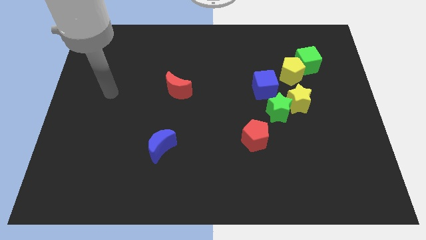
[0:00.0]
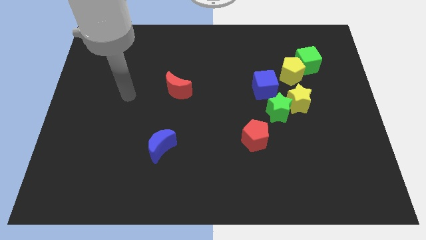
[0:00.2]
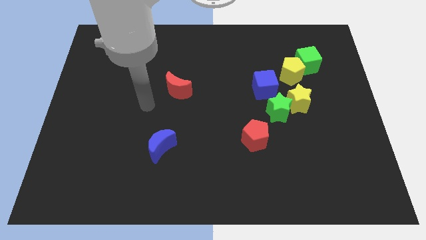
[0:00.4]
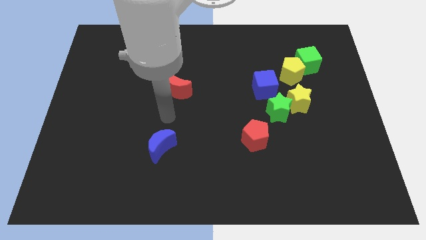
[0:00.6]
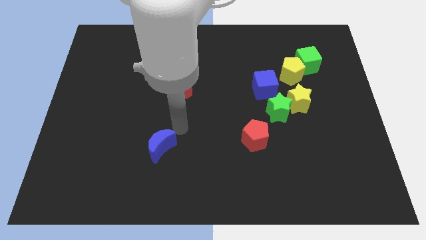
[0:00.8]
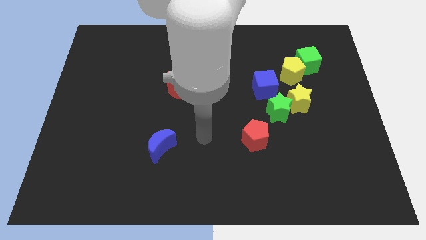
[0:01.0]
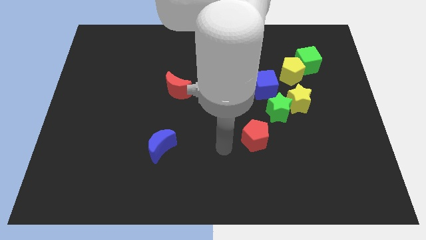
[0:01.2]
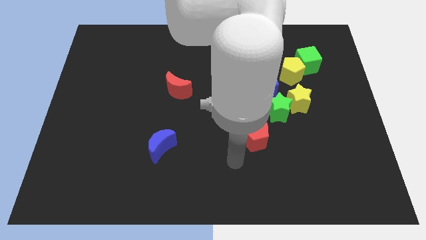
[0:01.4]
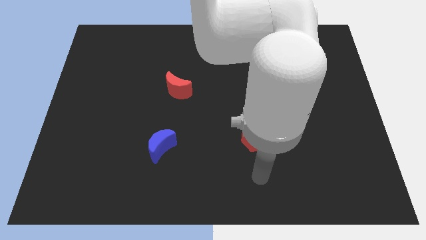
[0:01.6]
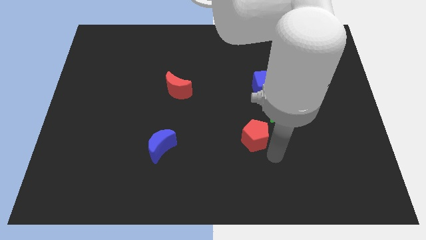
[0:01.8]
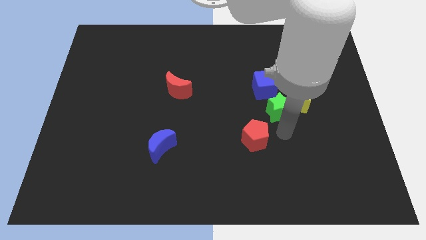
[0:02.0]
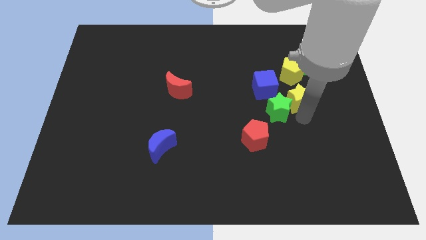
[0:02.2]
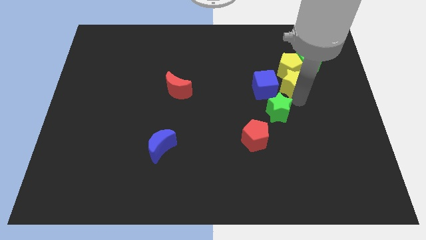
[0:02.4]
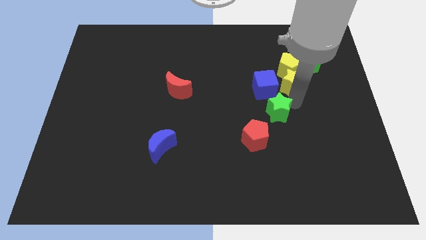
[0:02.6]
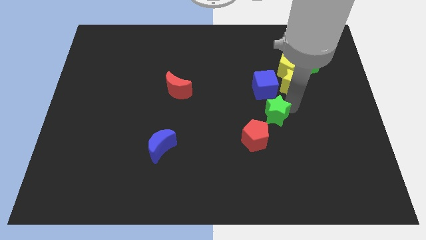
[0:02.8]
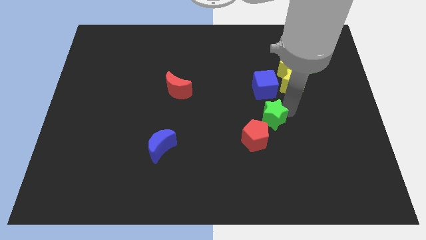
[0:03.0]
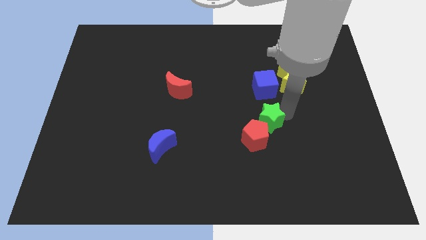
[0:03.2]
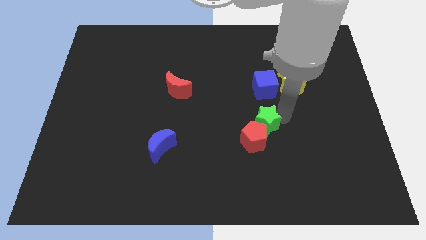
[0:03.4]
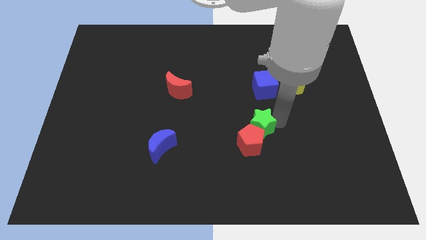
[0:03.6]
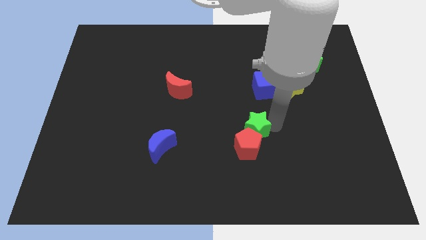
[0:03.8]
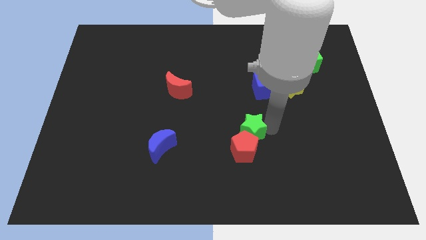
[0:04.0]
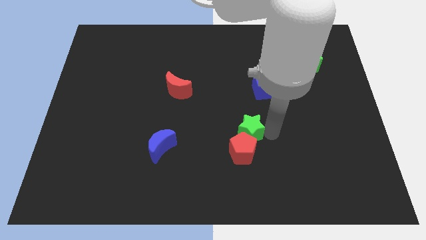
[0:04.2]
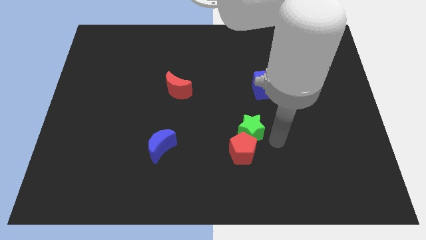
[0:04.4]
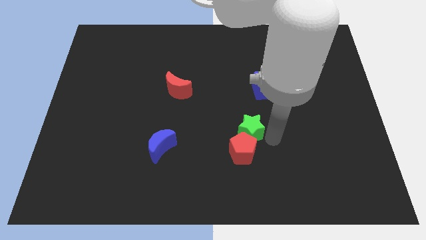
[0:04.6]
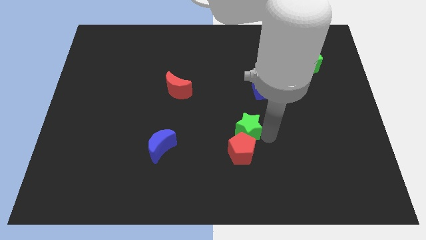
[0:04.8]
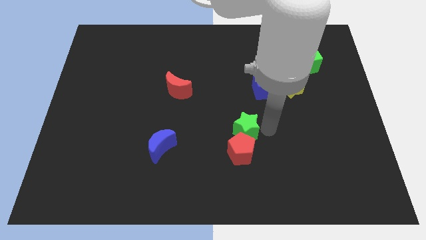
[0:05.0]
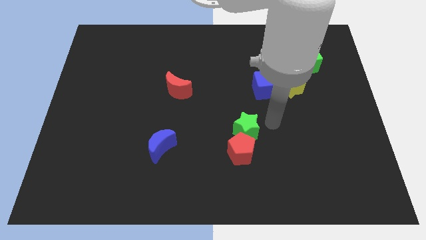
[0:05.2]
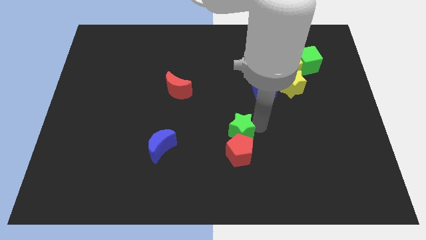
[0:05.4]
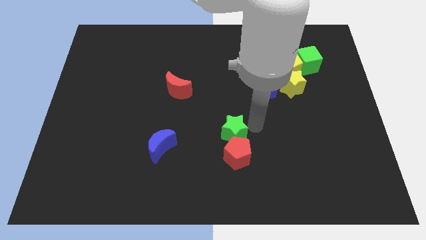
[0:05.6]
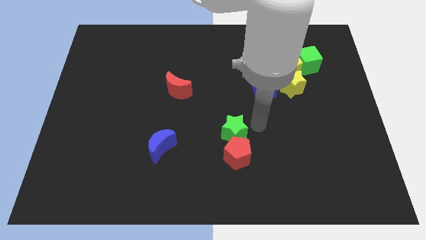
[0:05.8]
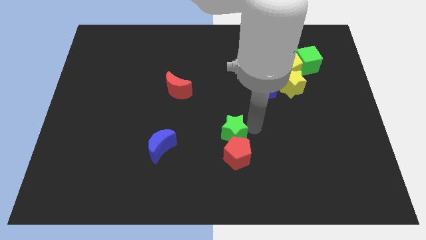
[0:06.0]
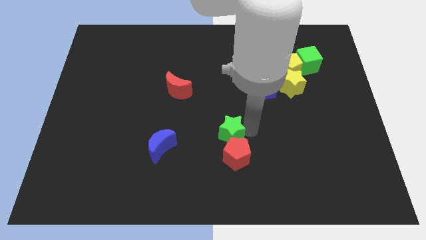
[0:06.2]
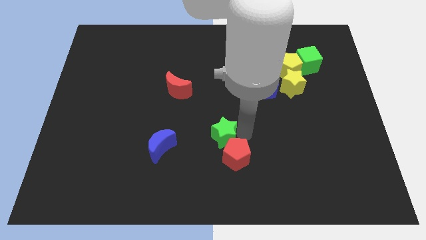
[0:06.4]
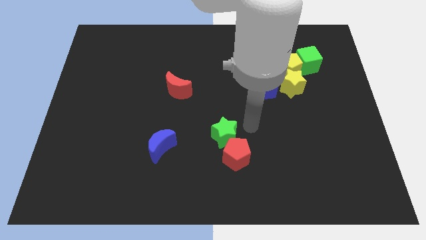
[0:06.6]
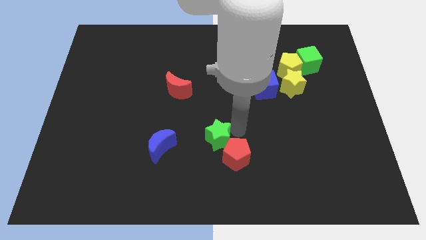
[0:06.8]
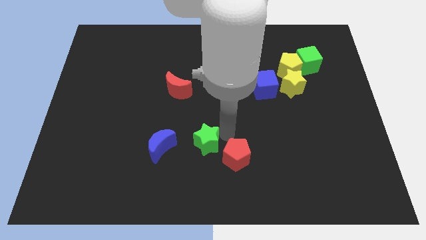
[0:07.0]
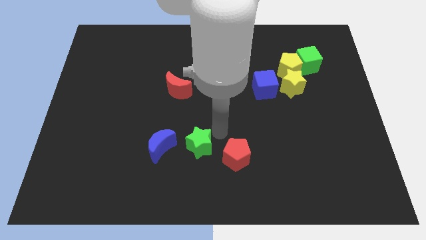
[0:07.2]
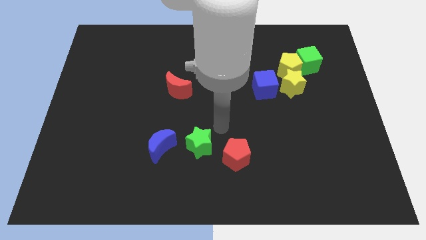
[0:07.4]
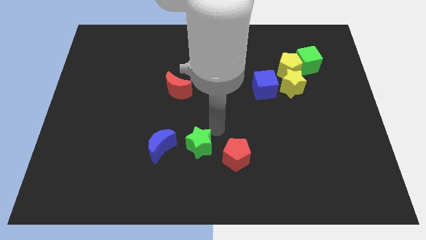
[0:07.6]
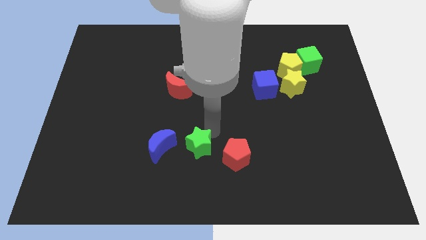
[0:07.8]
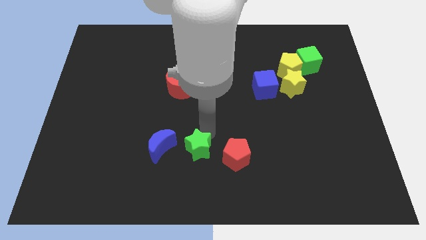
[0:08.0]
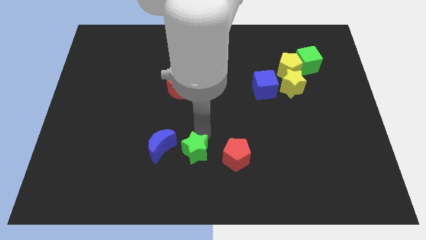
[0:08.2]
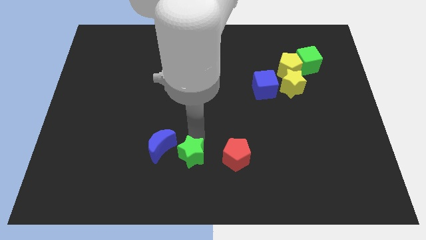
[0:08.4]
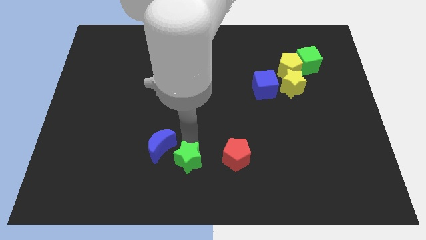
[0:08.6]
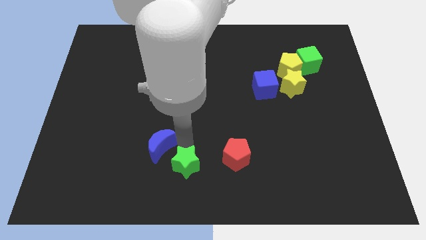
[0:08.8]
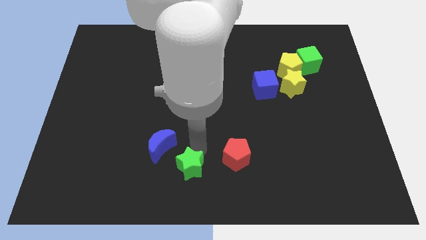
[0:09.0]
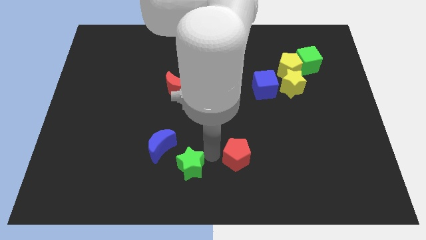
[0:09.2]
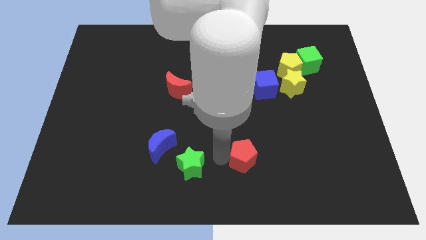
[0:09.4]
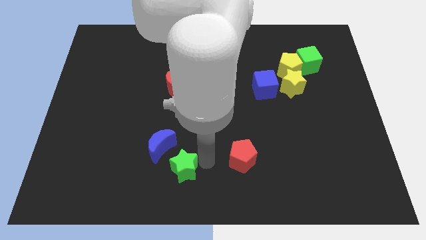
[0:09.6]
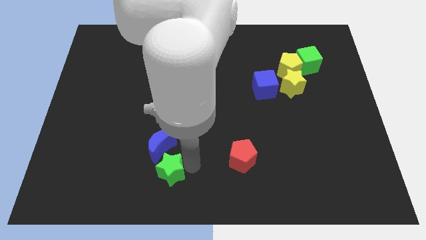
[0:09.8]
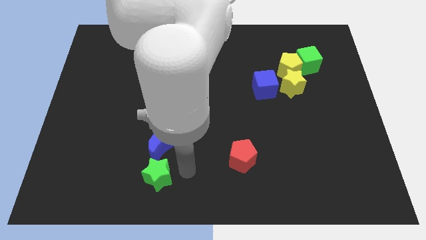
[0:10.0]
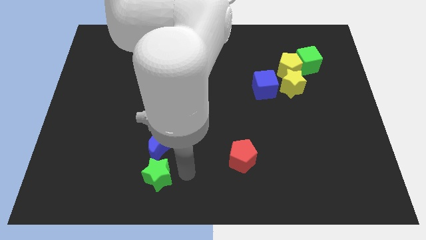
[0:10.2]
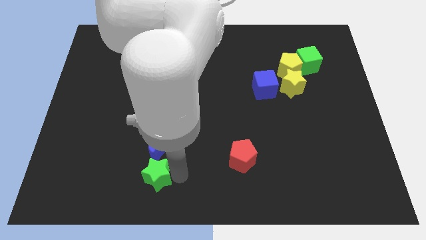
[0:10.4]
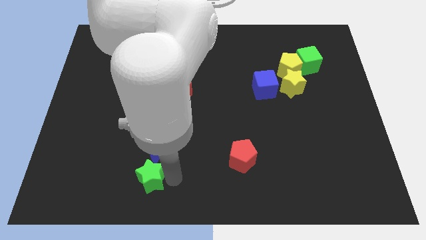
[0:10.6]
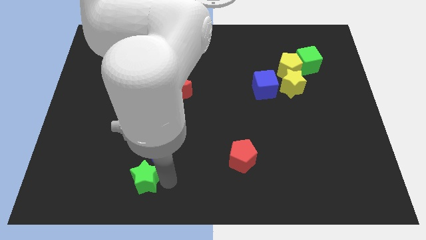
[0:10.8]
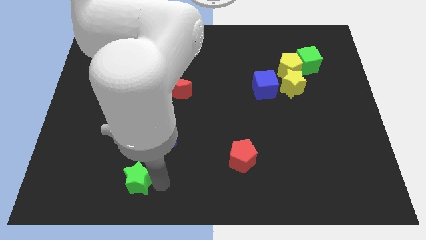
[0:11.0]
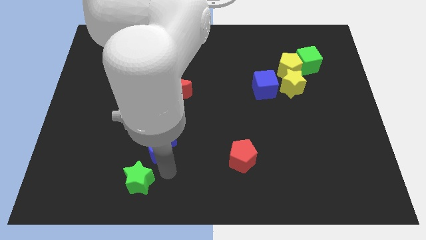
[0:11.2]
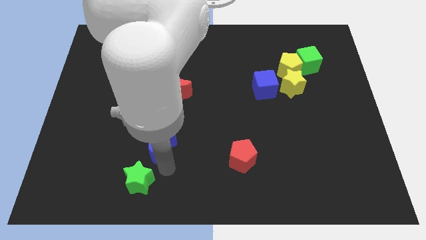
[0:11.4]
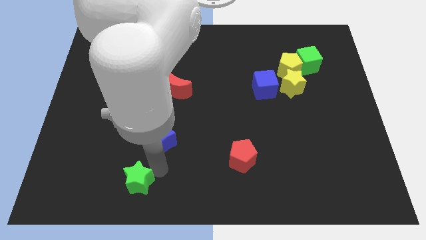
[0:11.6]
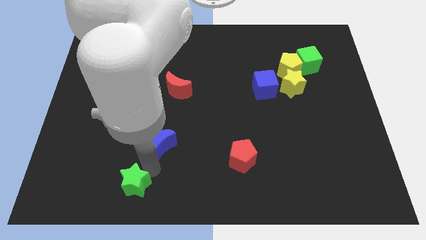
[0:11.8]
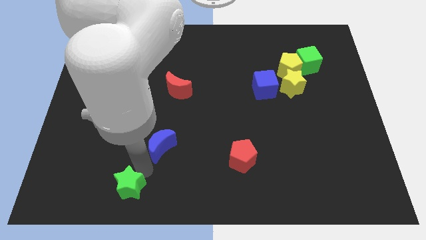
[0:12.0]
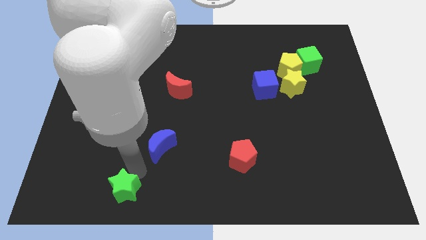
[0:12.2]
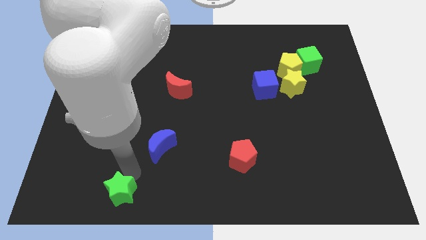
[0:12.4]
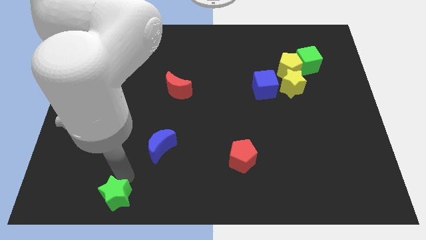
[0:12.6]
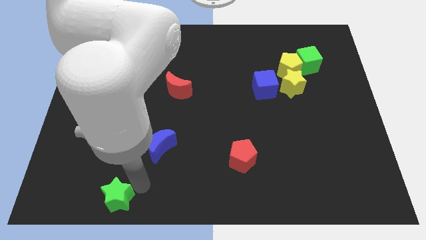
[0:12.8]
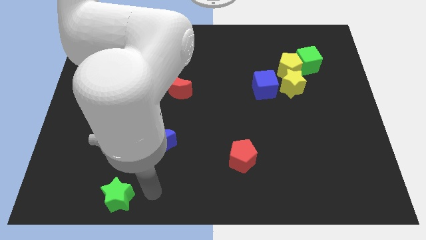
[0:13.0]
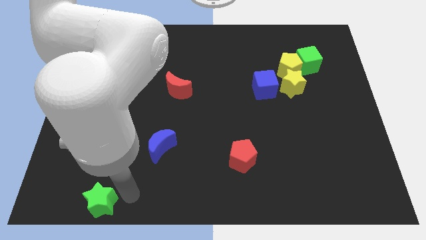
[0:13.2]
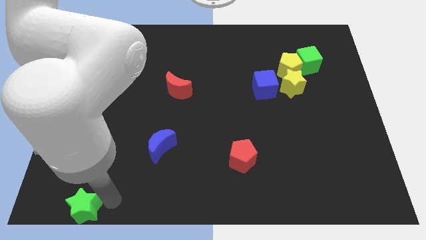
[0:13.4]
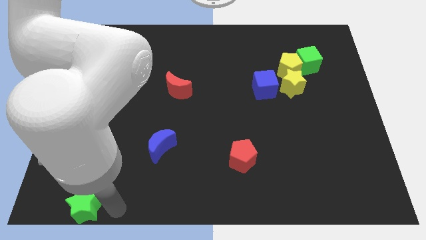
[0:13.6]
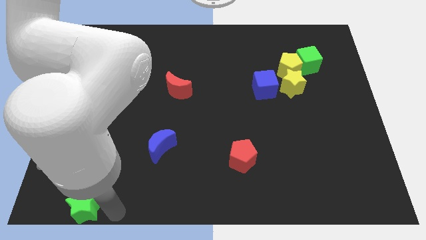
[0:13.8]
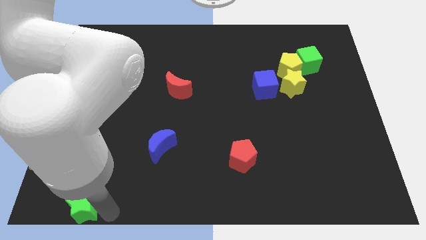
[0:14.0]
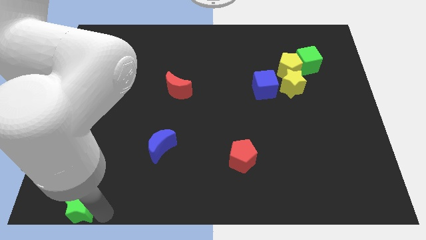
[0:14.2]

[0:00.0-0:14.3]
slide the green star to the lower left corner
